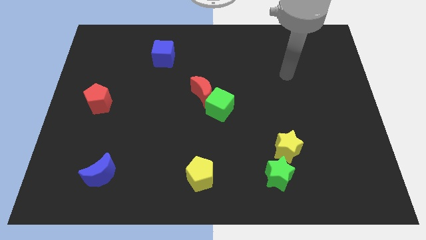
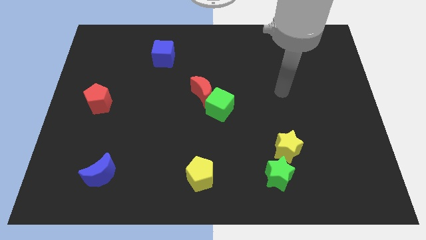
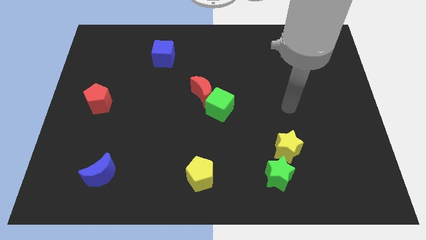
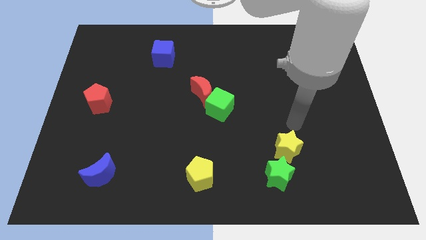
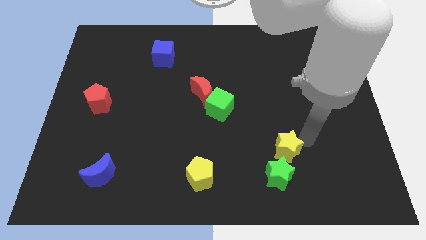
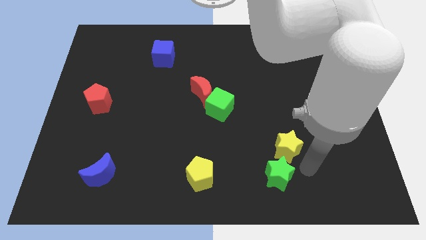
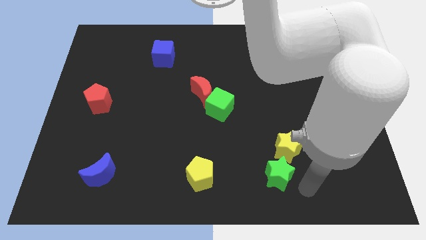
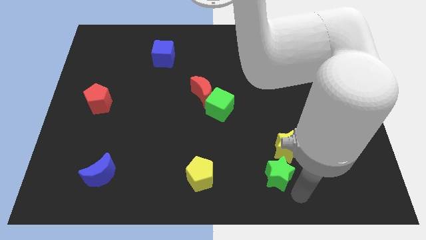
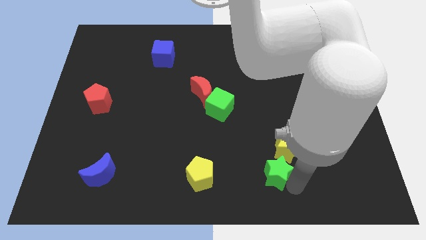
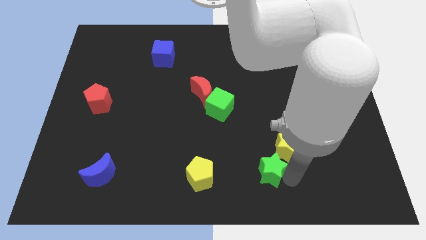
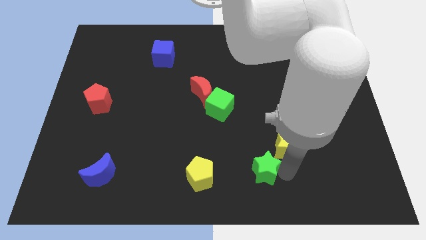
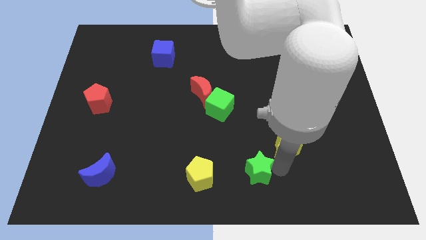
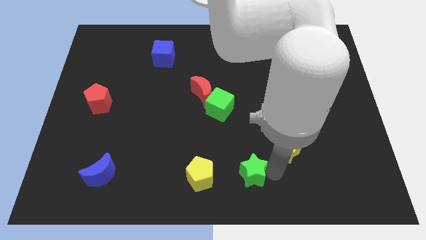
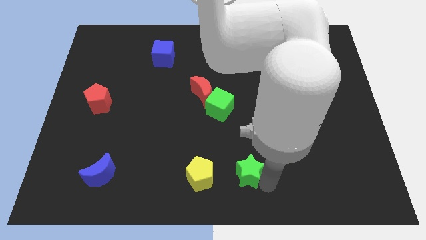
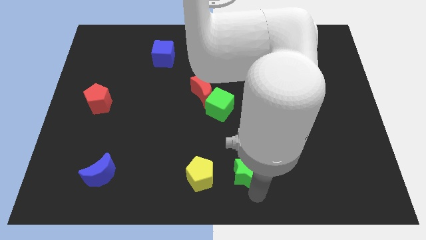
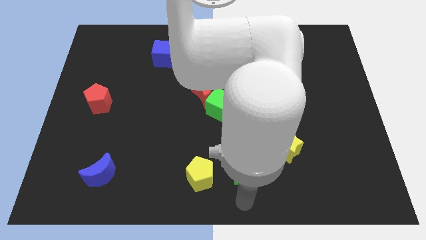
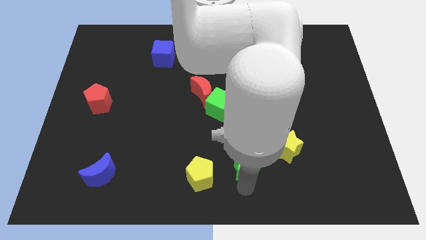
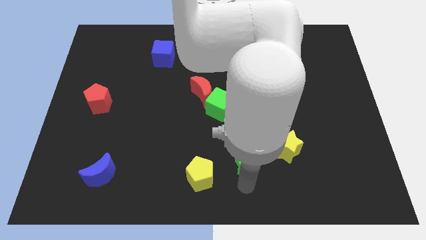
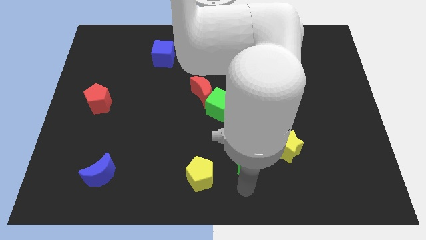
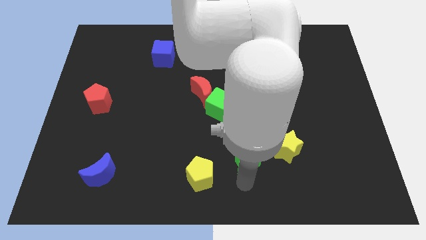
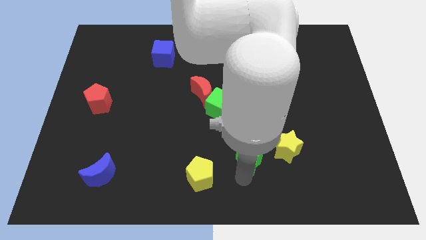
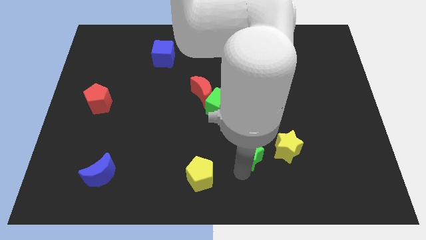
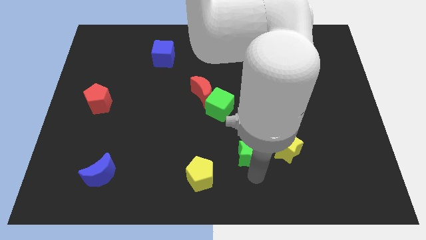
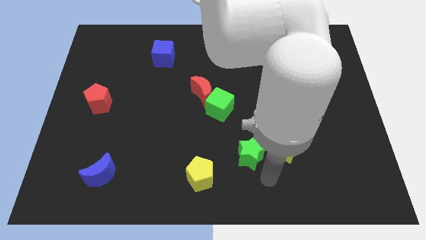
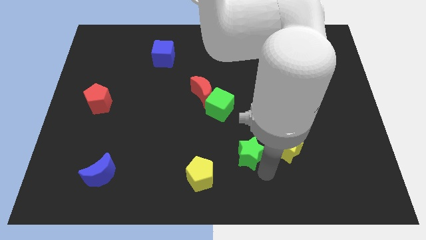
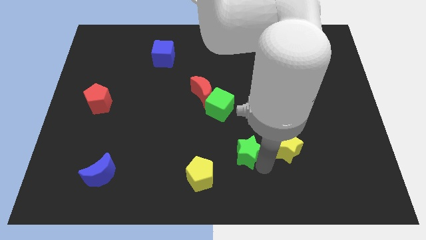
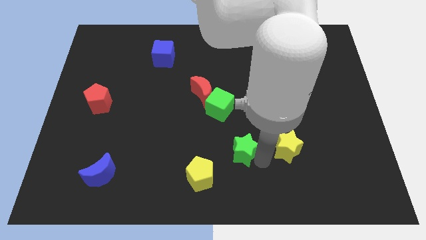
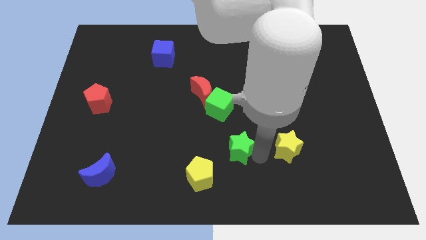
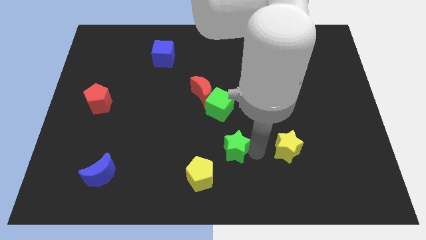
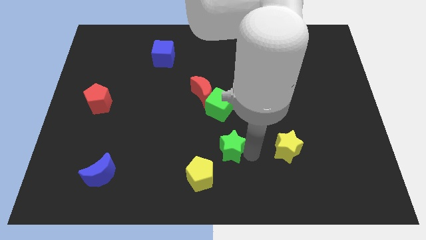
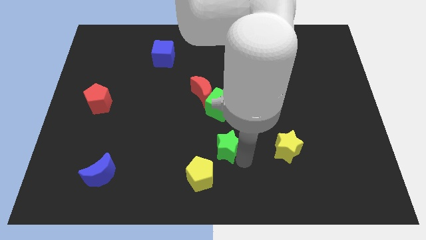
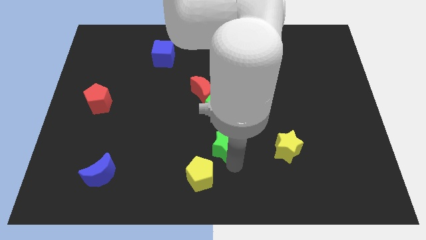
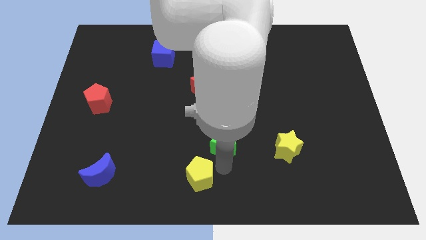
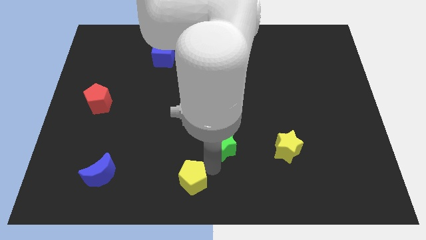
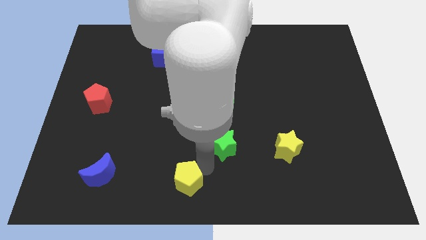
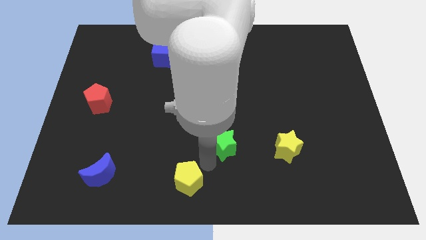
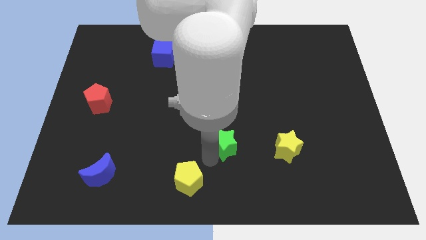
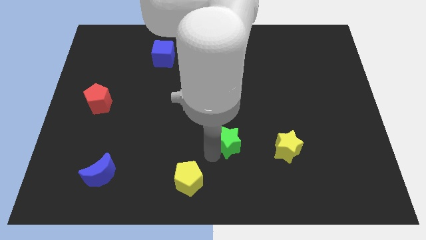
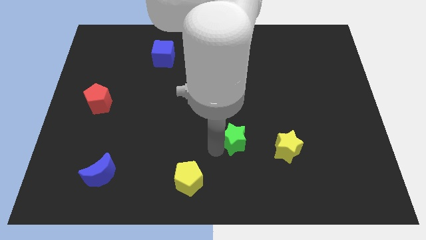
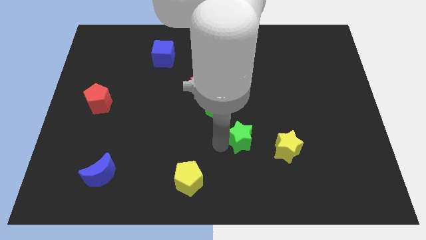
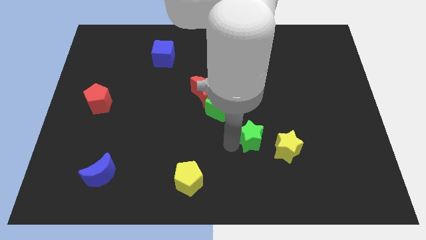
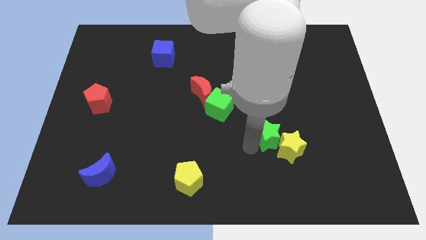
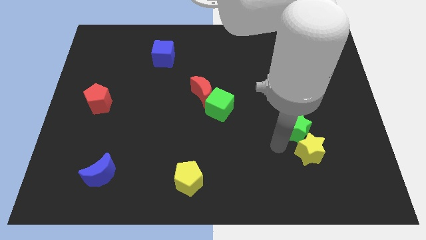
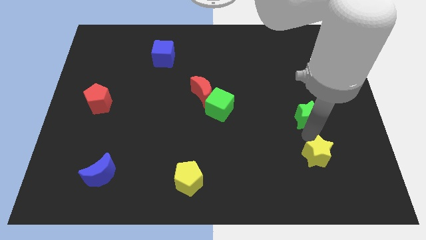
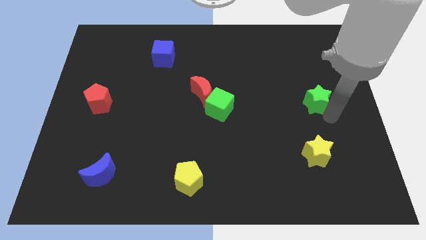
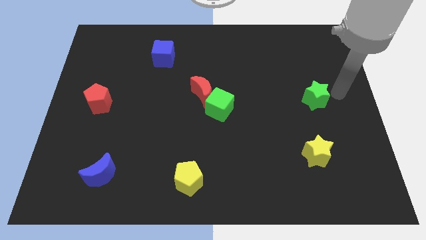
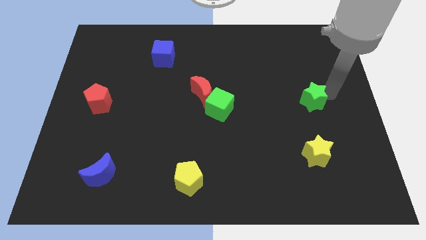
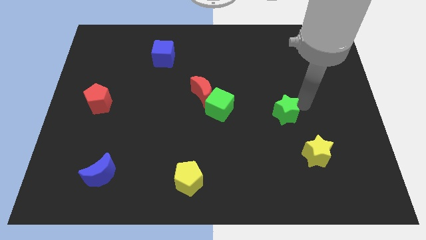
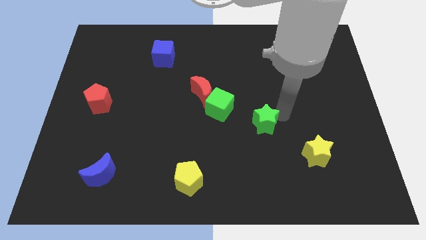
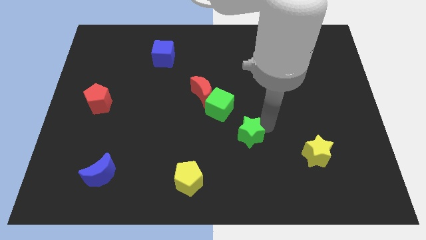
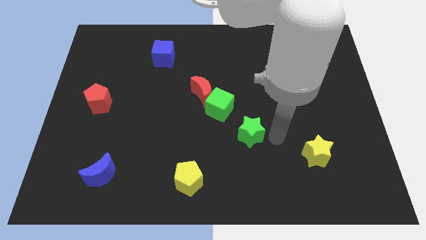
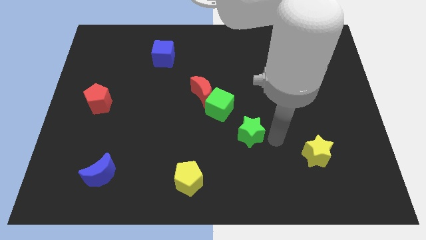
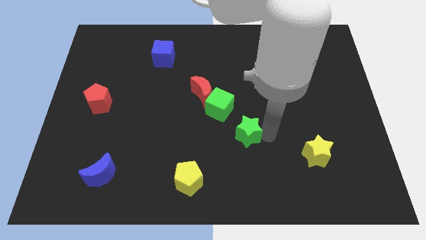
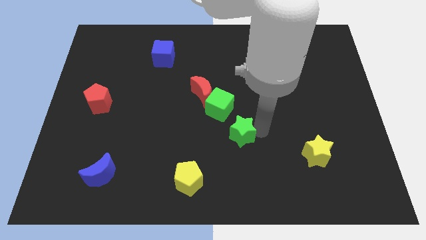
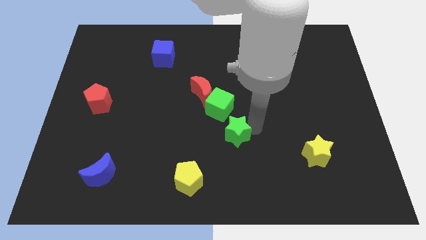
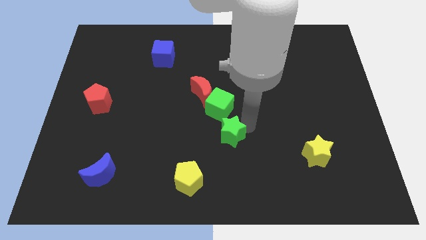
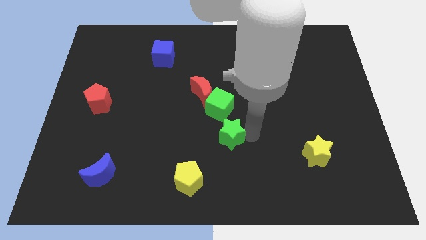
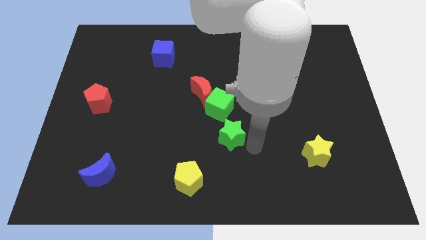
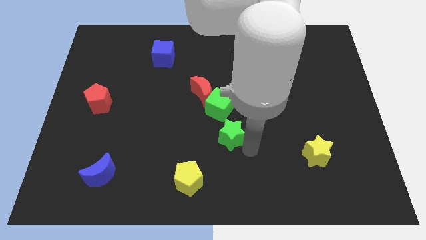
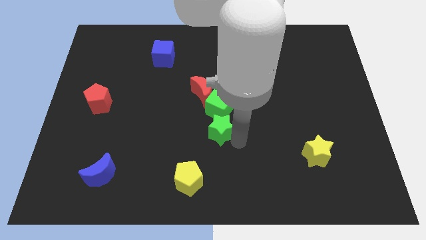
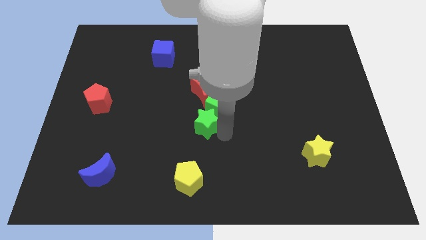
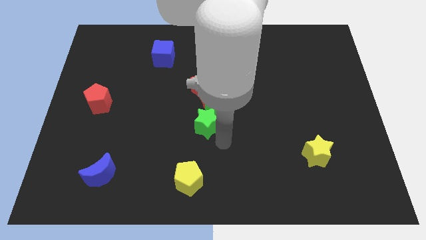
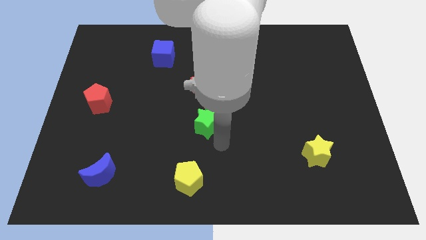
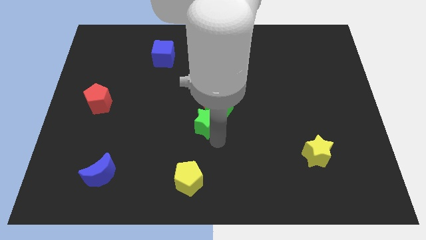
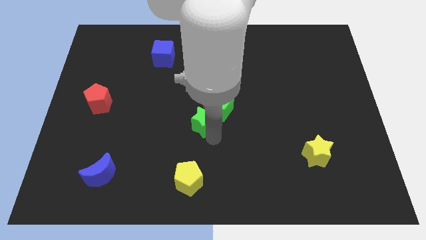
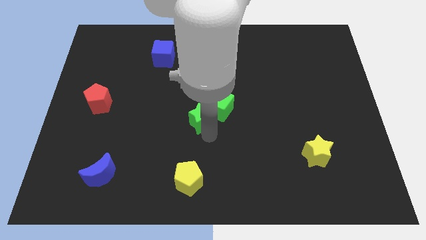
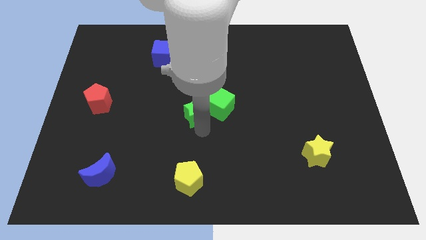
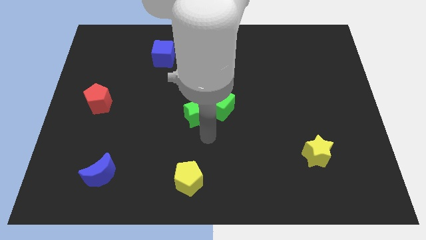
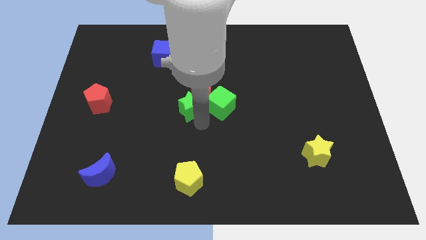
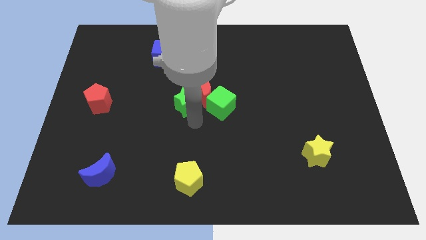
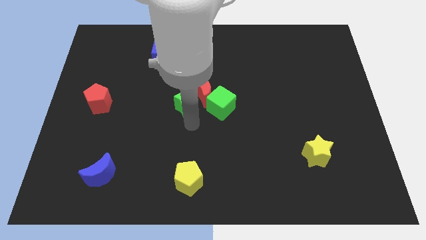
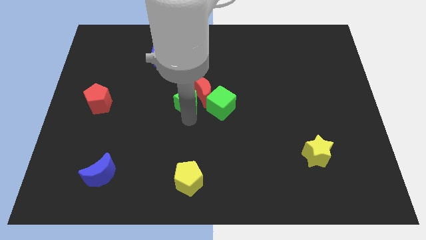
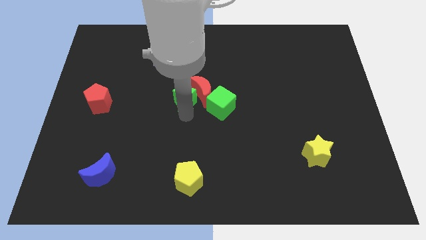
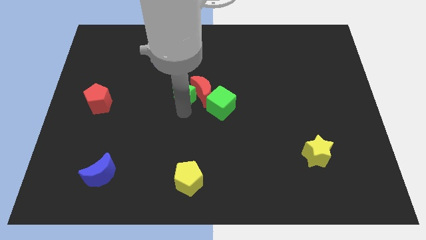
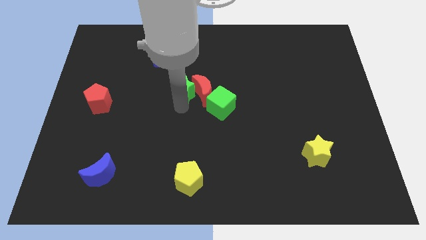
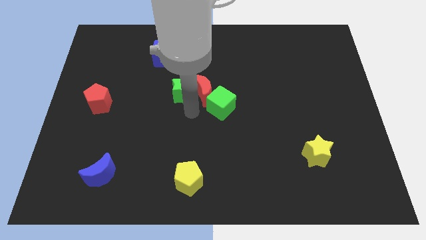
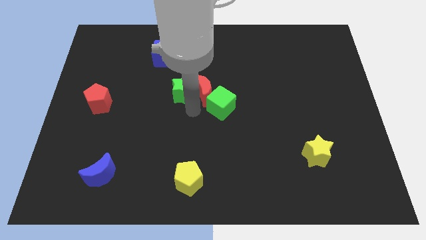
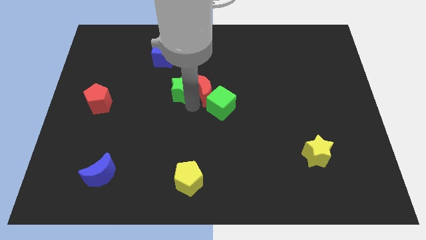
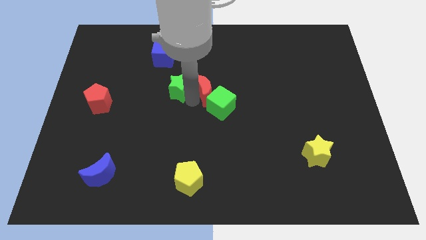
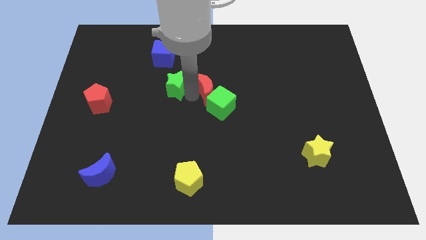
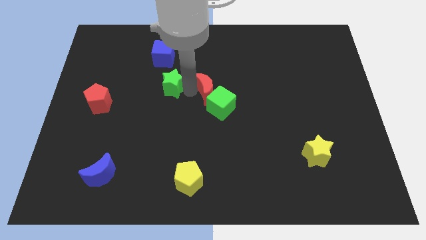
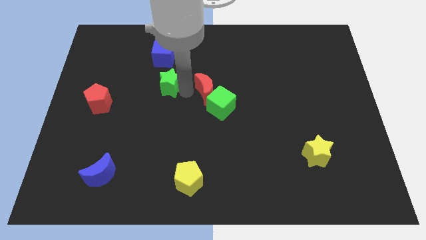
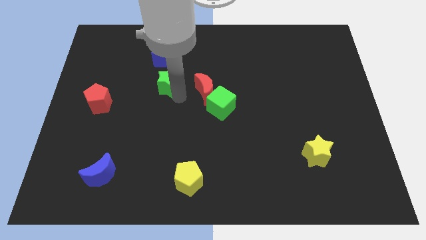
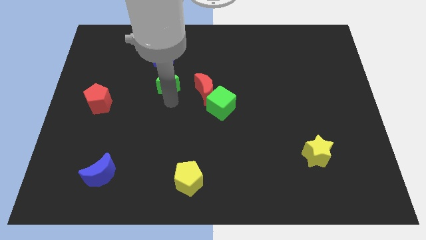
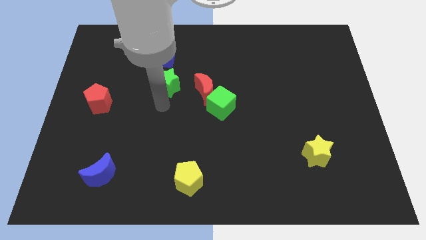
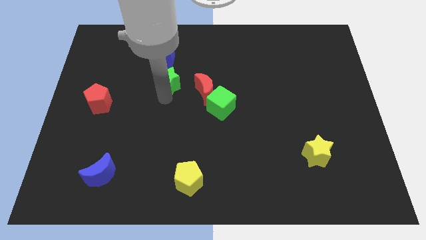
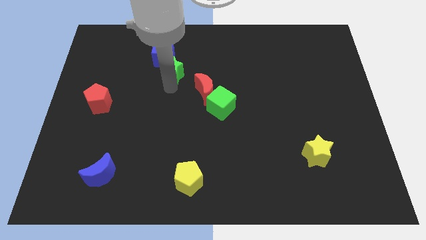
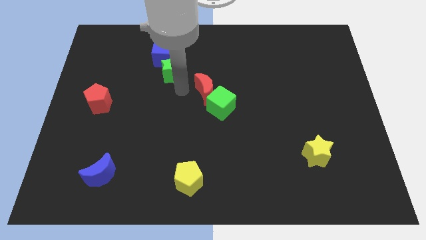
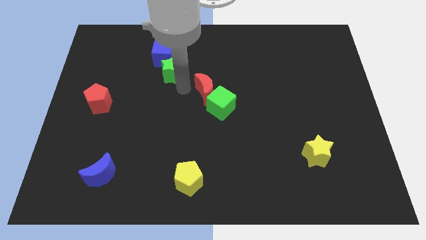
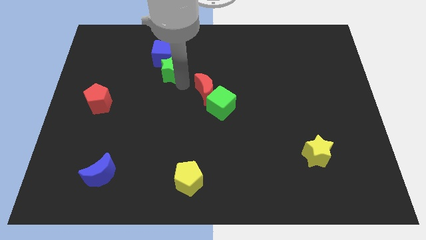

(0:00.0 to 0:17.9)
move the green star next to the blue cube
